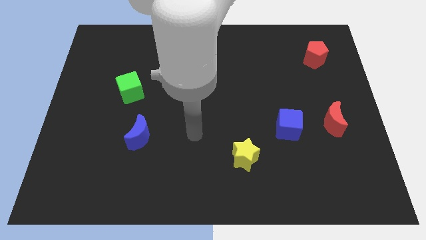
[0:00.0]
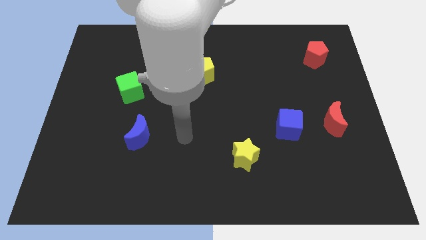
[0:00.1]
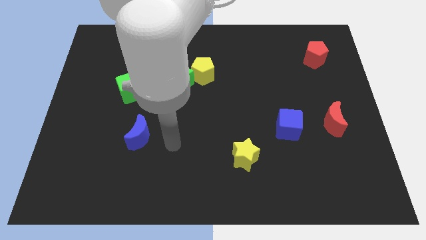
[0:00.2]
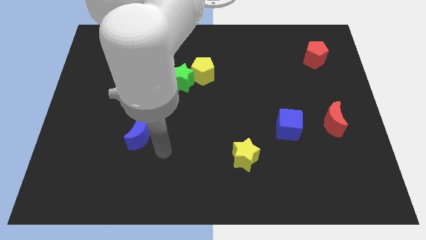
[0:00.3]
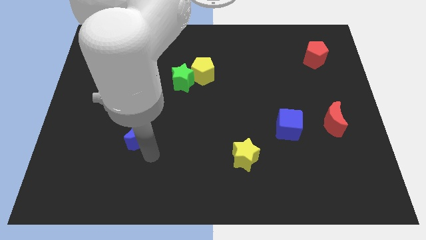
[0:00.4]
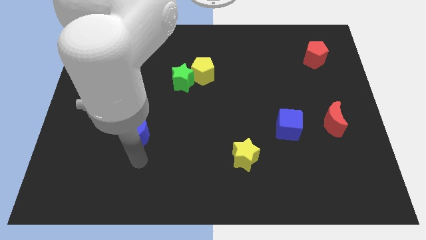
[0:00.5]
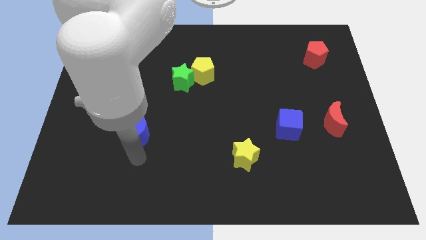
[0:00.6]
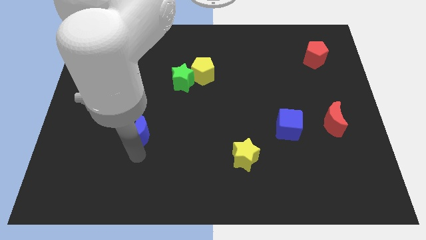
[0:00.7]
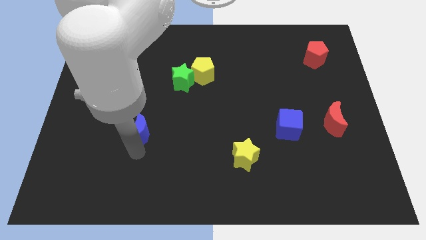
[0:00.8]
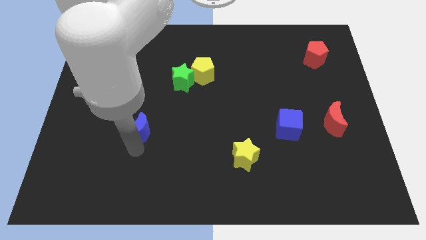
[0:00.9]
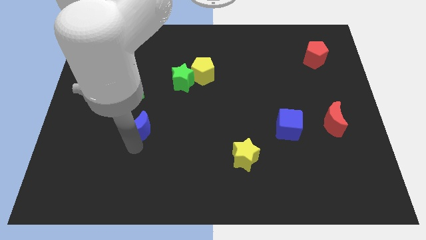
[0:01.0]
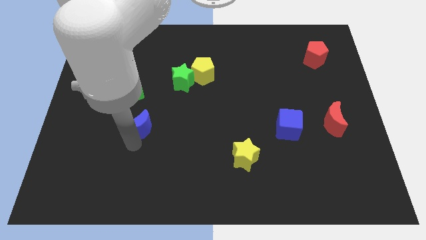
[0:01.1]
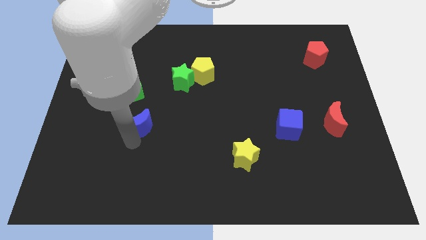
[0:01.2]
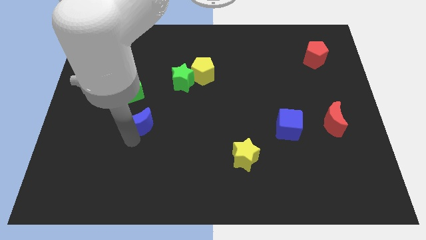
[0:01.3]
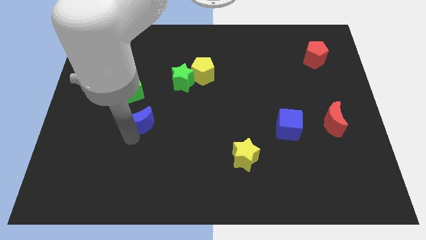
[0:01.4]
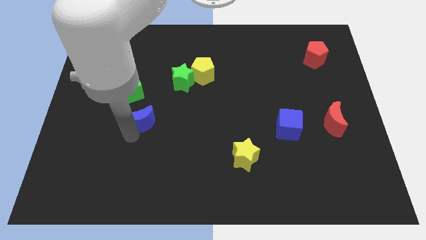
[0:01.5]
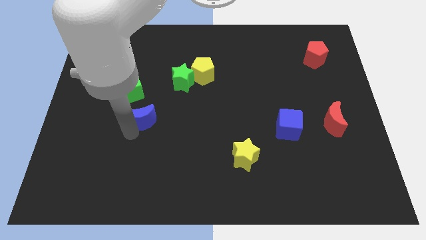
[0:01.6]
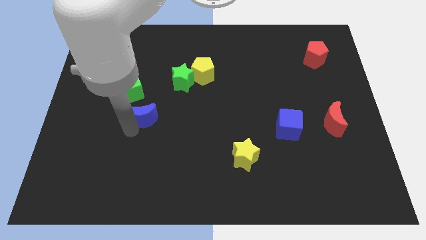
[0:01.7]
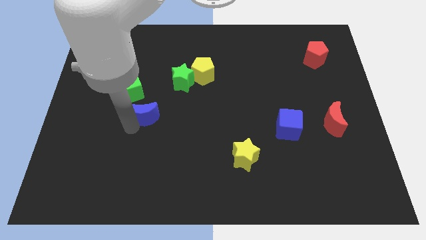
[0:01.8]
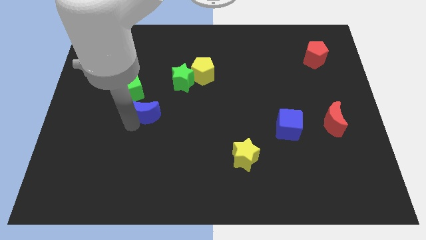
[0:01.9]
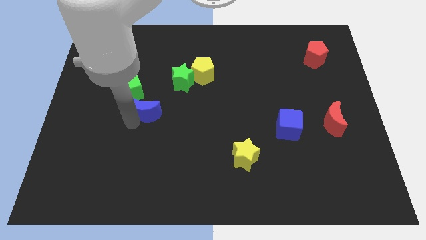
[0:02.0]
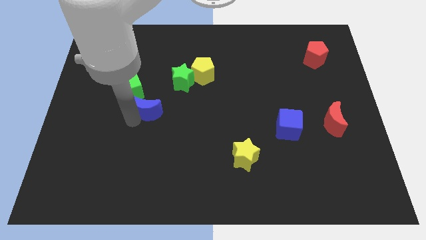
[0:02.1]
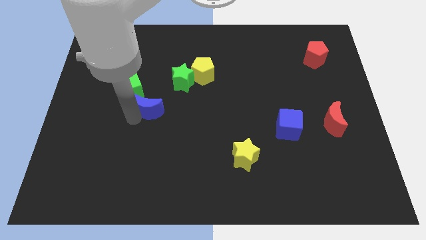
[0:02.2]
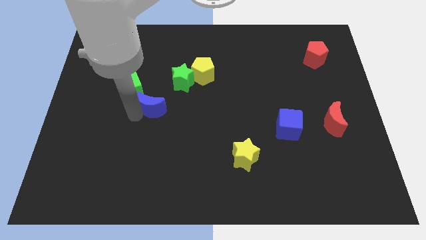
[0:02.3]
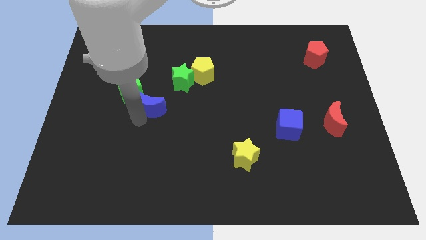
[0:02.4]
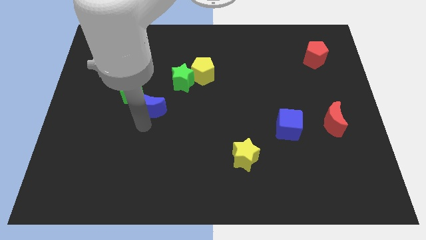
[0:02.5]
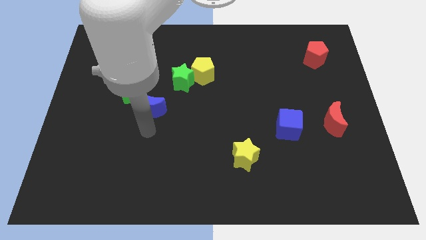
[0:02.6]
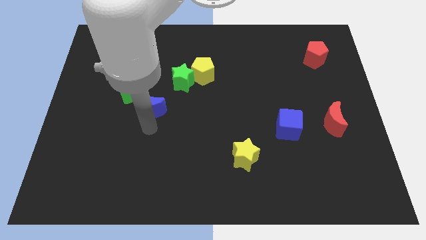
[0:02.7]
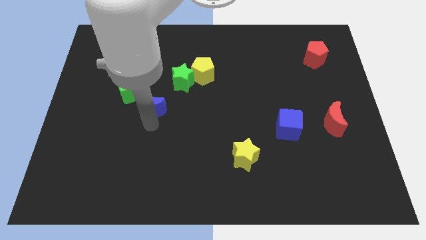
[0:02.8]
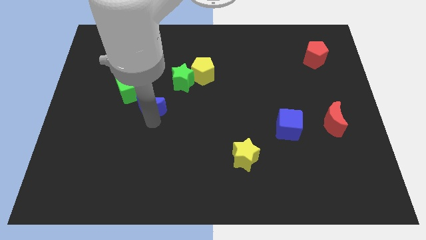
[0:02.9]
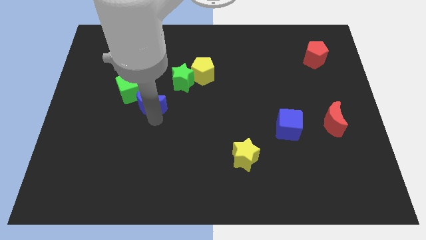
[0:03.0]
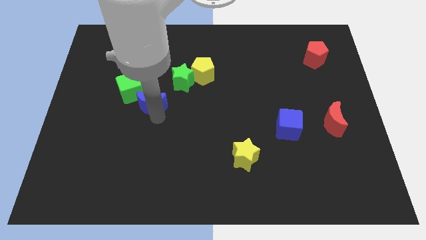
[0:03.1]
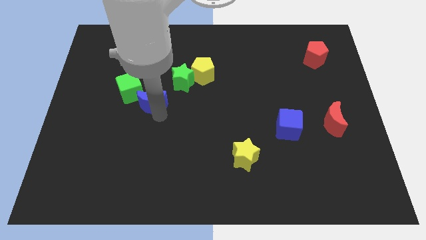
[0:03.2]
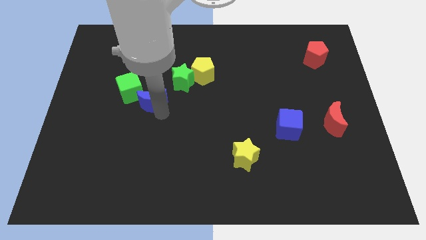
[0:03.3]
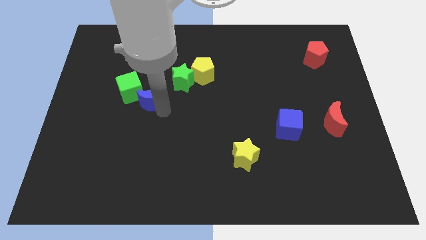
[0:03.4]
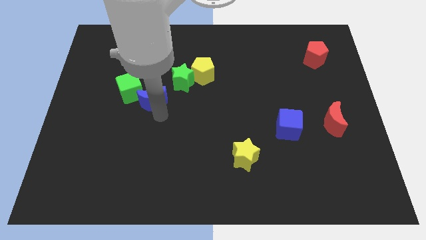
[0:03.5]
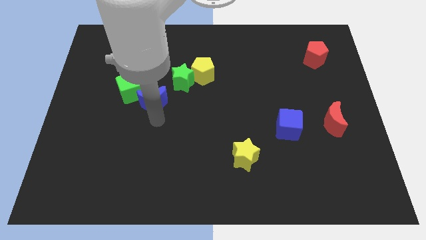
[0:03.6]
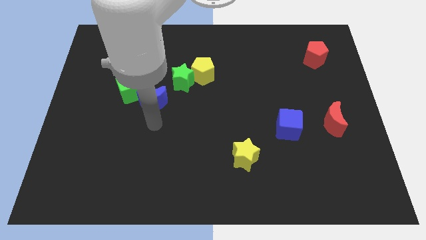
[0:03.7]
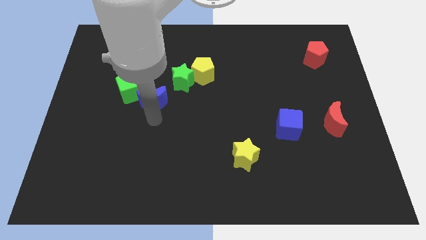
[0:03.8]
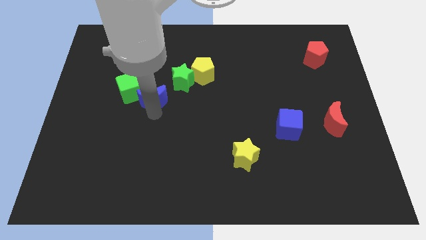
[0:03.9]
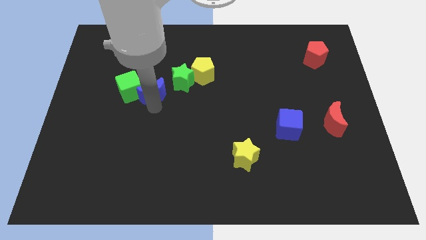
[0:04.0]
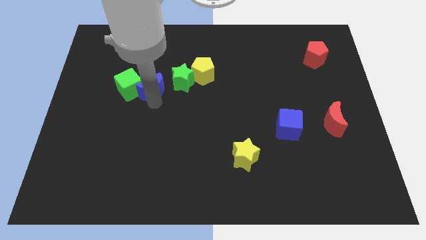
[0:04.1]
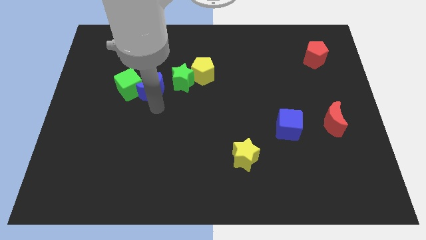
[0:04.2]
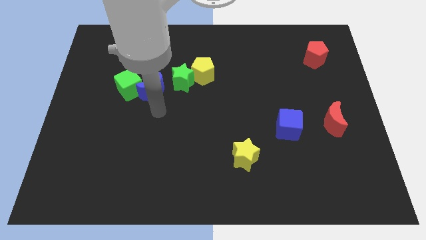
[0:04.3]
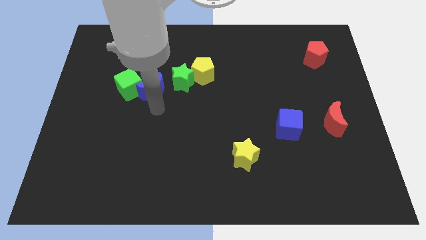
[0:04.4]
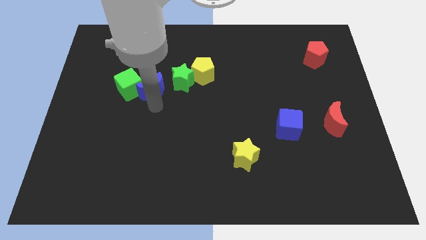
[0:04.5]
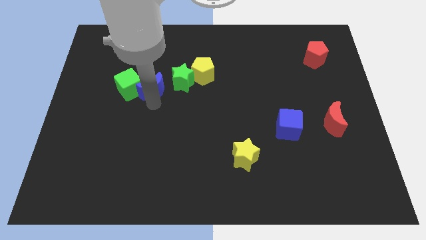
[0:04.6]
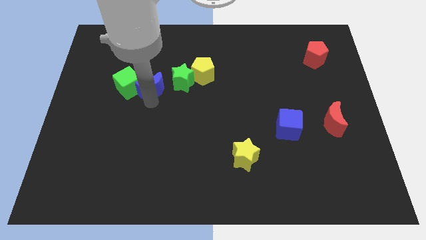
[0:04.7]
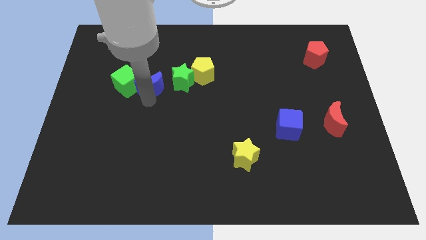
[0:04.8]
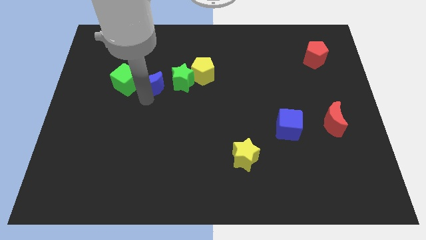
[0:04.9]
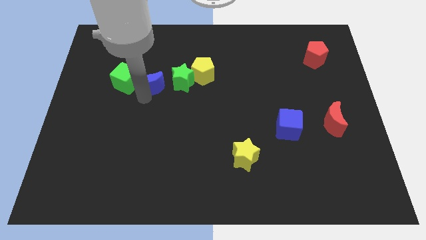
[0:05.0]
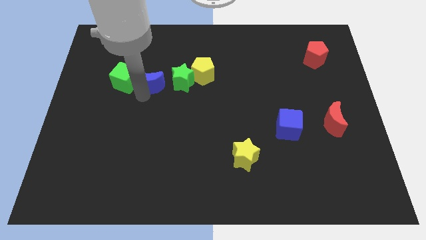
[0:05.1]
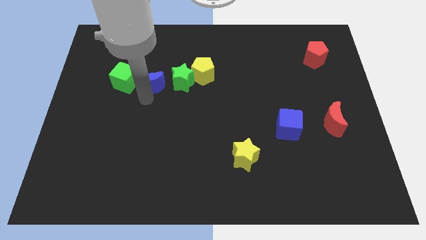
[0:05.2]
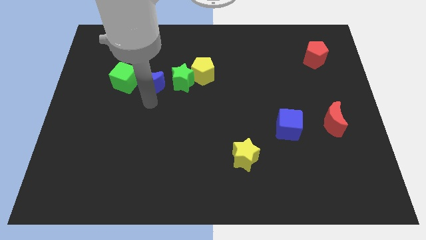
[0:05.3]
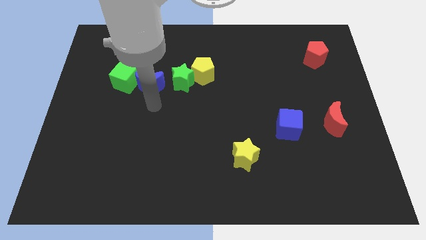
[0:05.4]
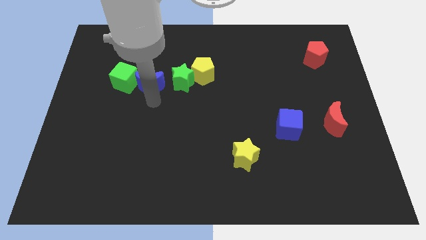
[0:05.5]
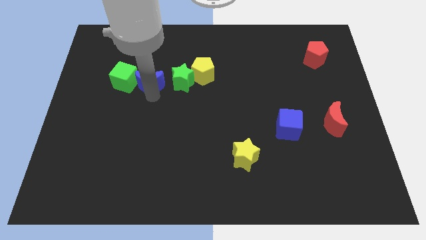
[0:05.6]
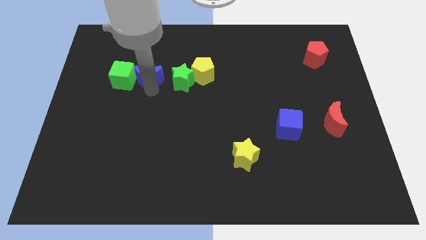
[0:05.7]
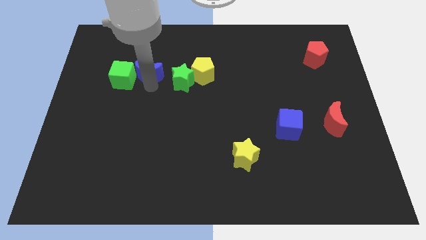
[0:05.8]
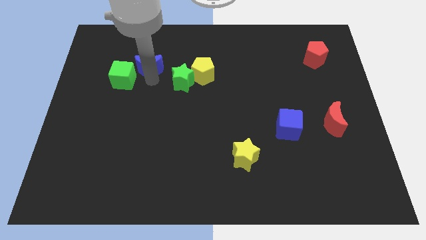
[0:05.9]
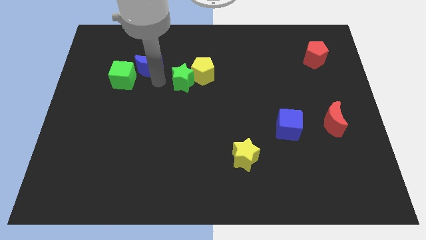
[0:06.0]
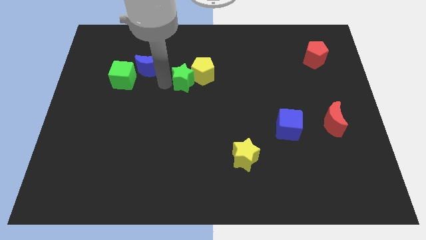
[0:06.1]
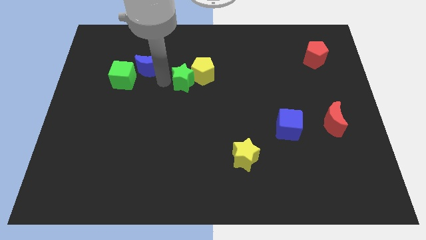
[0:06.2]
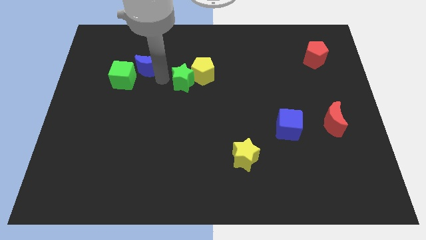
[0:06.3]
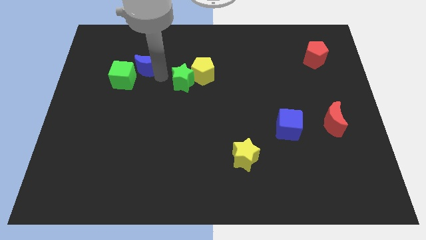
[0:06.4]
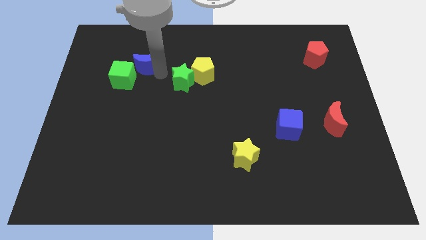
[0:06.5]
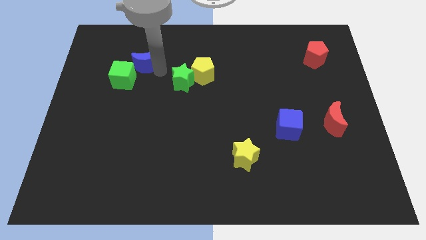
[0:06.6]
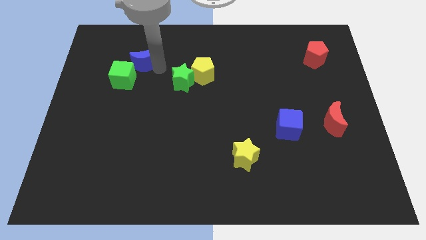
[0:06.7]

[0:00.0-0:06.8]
push the blue moon to the top of the green cube
